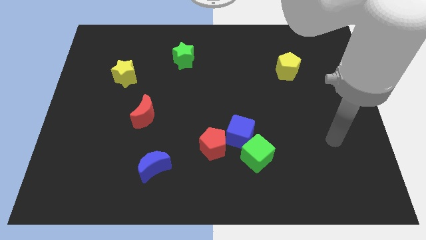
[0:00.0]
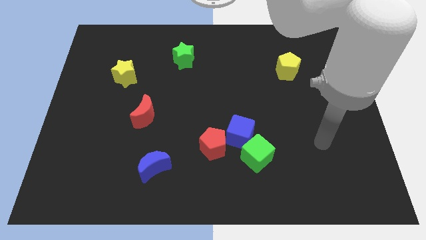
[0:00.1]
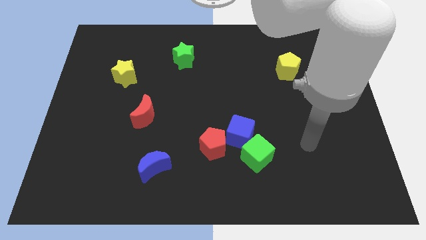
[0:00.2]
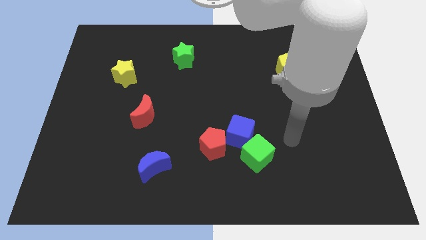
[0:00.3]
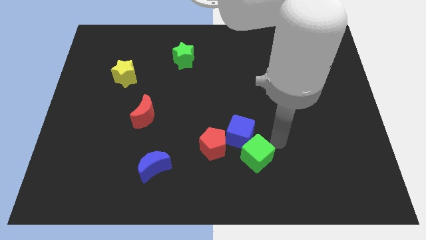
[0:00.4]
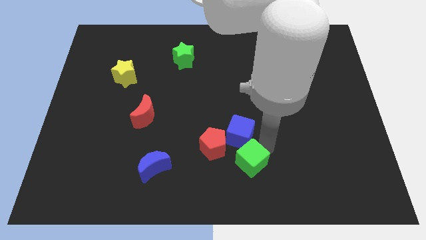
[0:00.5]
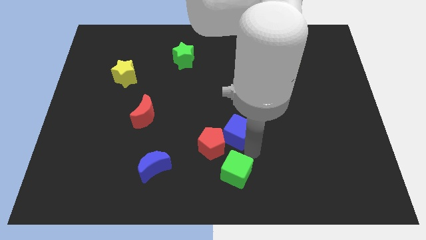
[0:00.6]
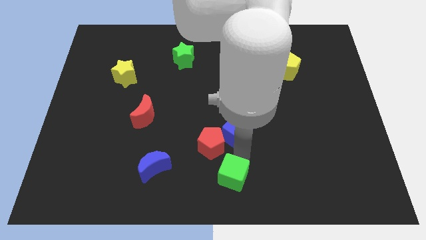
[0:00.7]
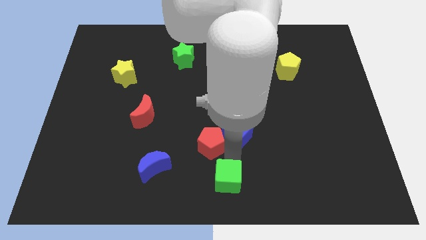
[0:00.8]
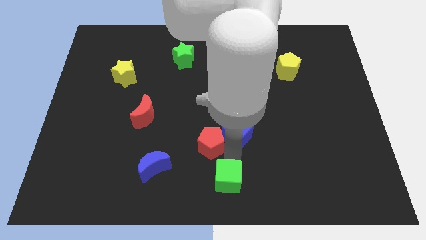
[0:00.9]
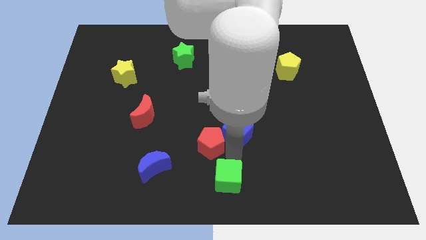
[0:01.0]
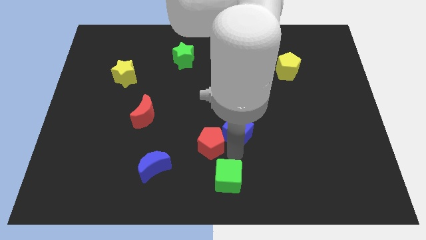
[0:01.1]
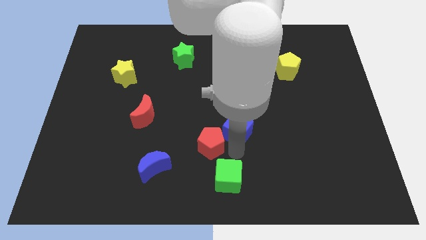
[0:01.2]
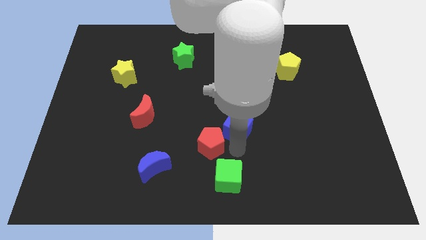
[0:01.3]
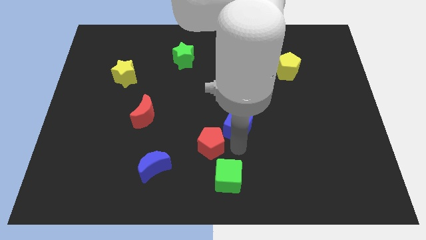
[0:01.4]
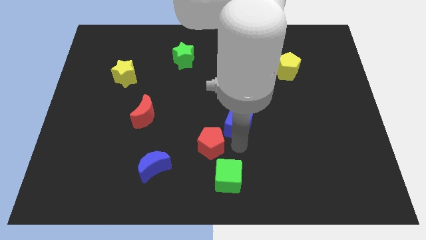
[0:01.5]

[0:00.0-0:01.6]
move the blue cube away from the green cube and red pentagon

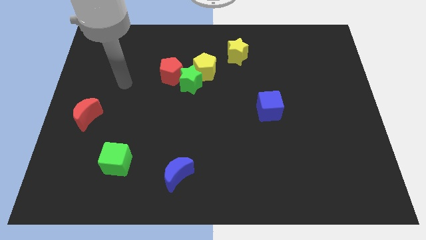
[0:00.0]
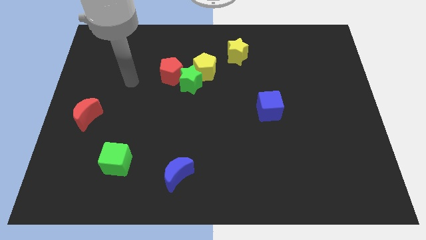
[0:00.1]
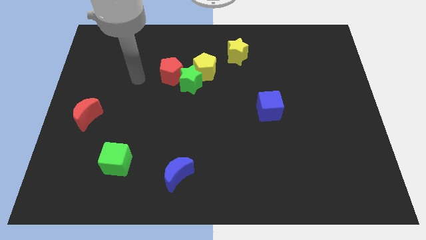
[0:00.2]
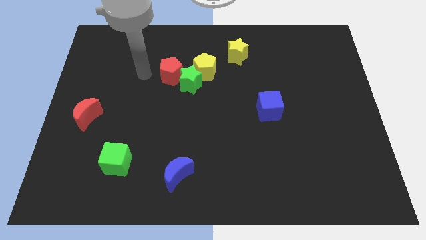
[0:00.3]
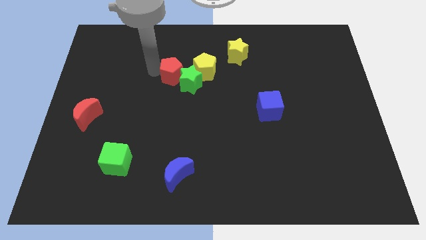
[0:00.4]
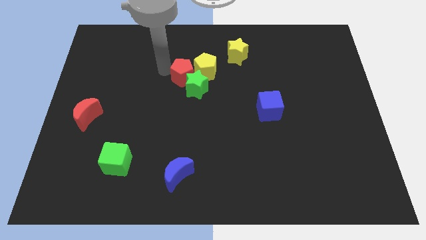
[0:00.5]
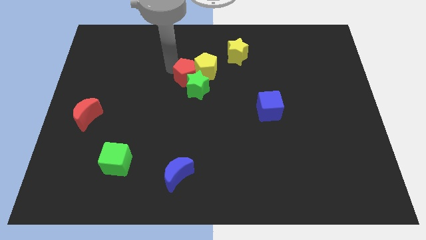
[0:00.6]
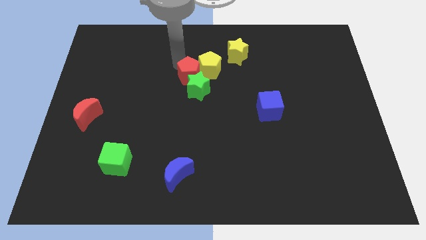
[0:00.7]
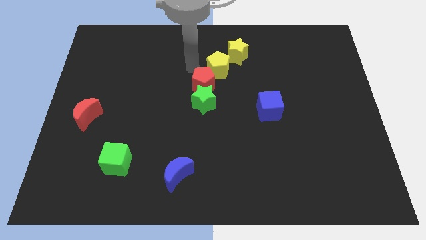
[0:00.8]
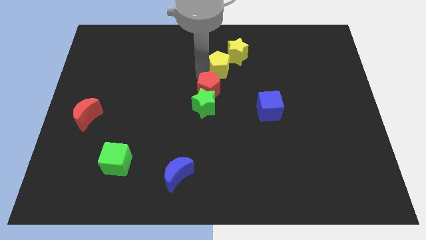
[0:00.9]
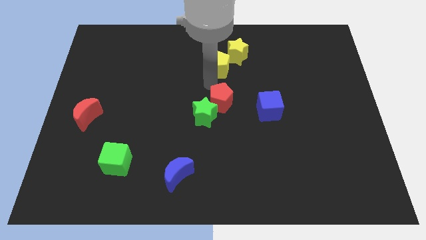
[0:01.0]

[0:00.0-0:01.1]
separate the green star from the red pentagon and yellow pentagon

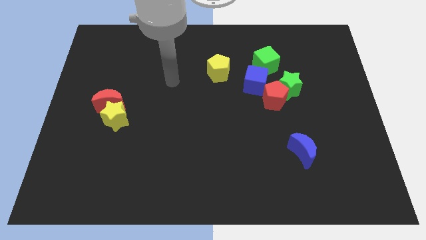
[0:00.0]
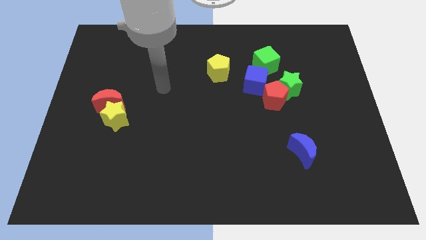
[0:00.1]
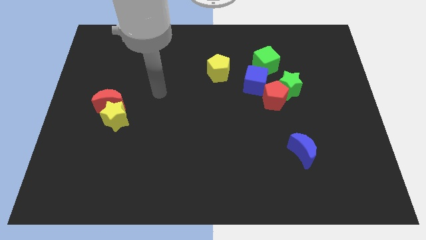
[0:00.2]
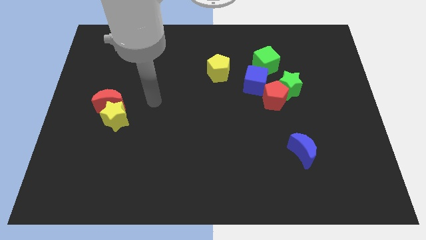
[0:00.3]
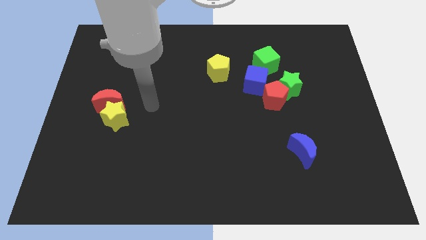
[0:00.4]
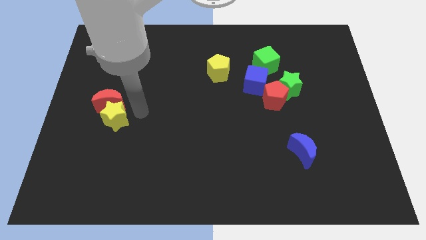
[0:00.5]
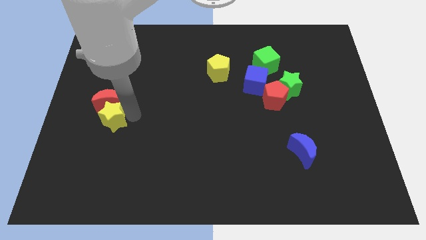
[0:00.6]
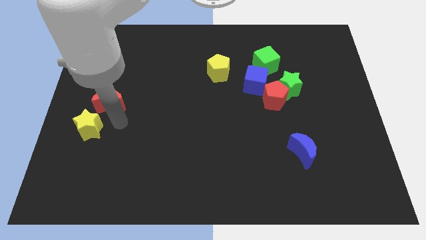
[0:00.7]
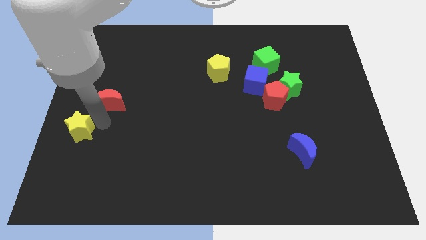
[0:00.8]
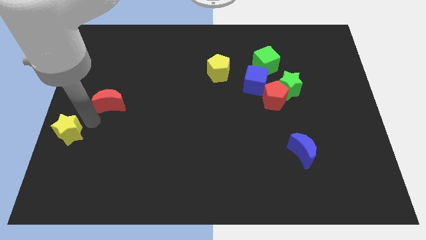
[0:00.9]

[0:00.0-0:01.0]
move the red moon away from the yellow star

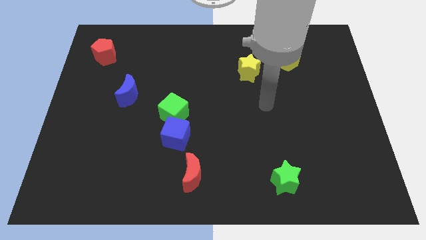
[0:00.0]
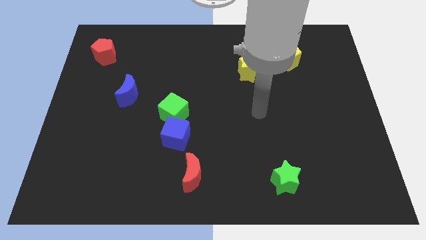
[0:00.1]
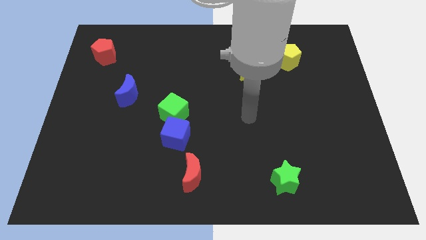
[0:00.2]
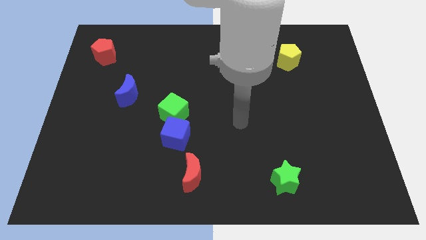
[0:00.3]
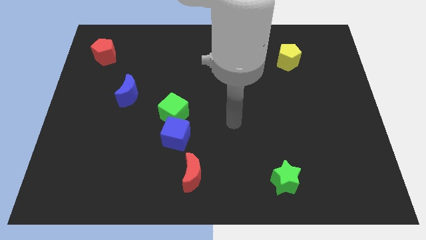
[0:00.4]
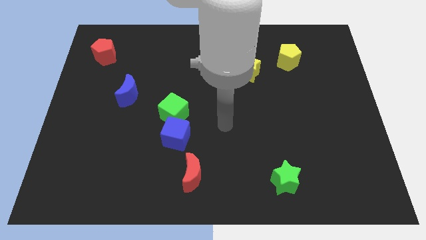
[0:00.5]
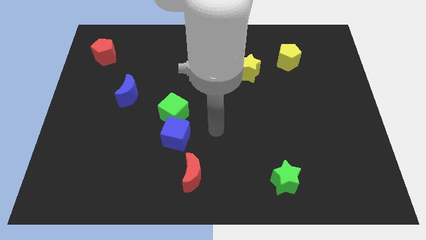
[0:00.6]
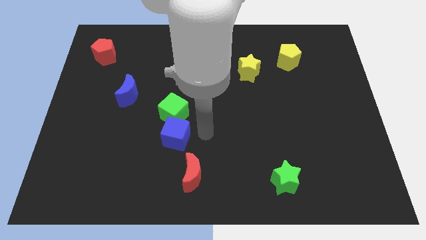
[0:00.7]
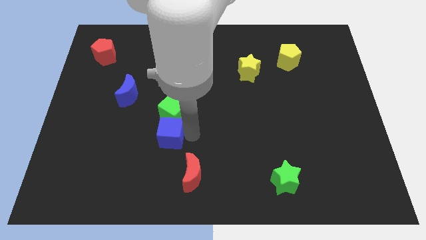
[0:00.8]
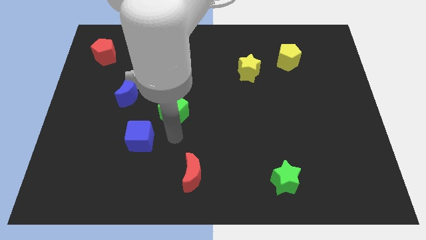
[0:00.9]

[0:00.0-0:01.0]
move the green cube away from the blue cube

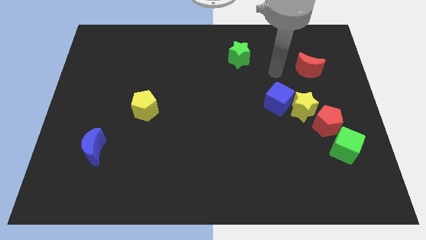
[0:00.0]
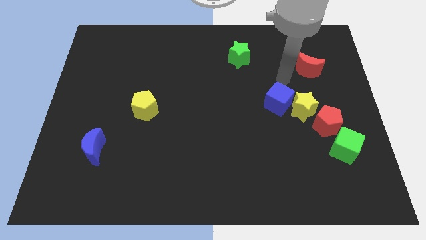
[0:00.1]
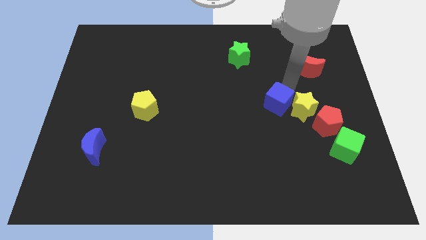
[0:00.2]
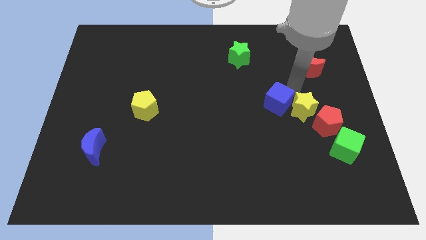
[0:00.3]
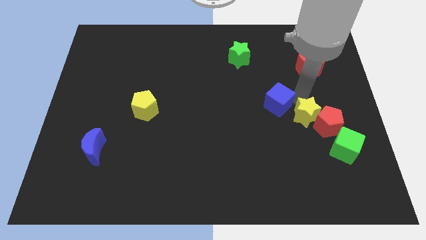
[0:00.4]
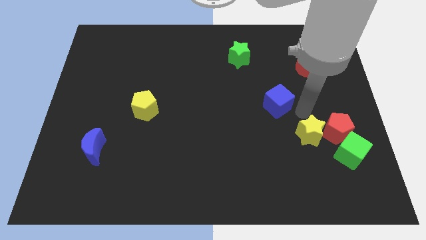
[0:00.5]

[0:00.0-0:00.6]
separate the blue cube from the yellow star

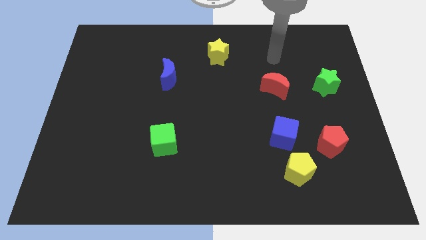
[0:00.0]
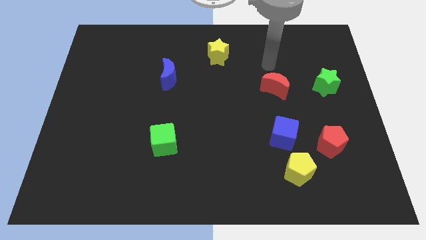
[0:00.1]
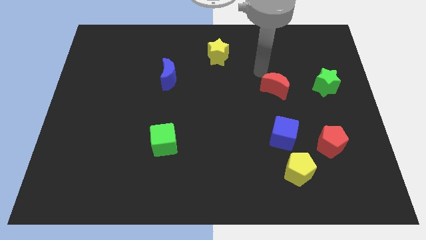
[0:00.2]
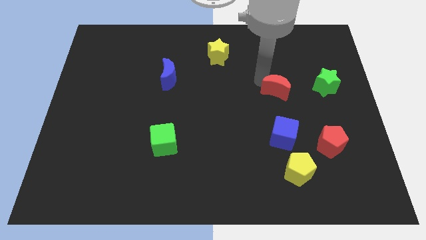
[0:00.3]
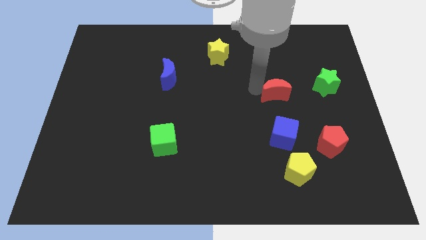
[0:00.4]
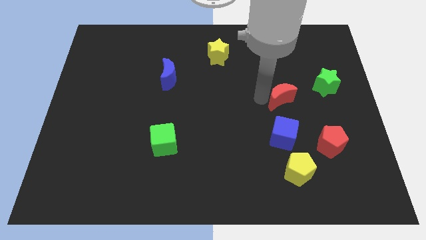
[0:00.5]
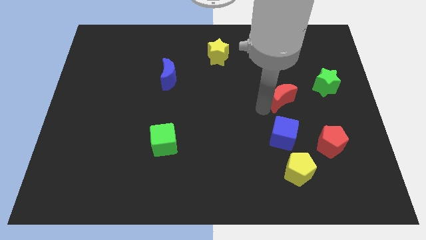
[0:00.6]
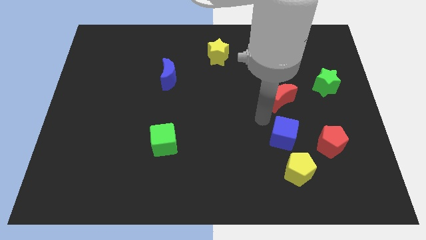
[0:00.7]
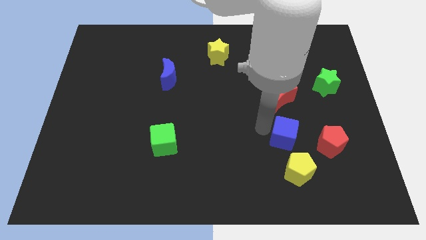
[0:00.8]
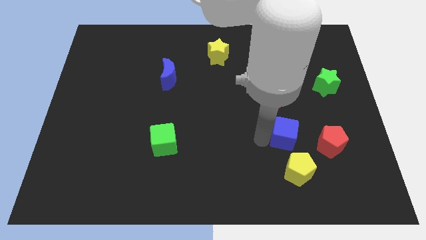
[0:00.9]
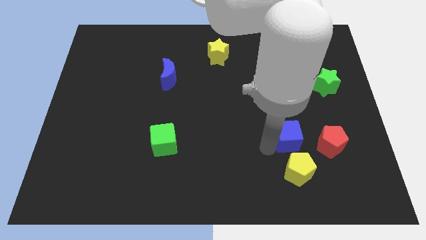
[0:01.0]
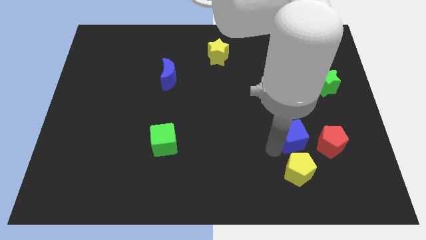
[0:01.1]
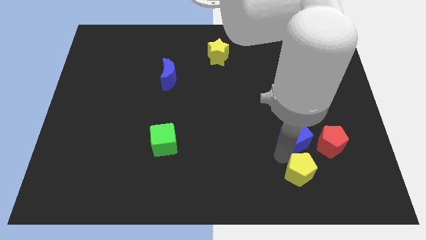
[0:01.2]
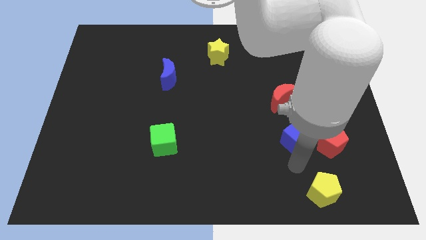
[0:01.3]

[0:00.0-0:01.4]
move the blue cube away from the yellow pentagon

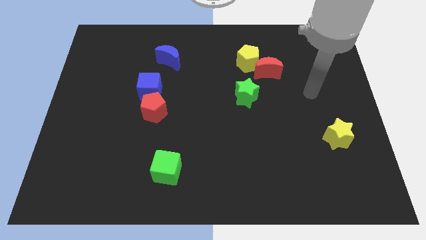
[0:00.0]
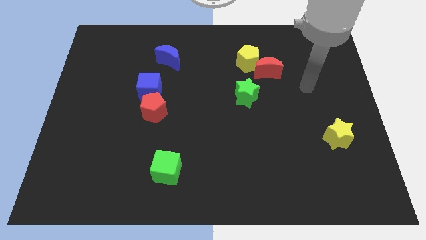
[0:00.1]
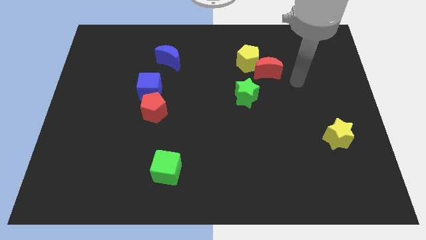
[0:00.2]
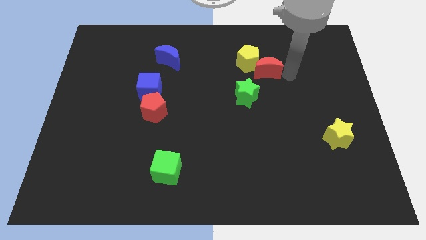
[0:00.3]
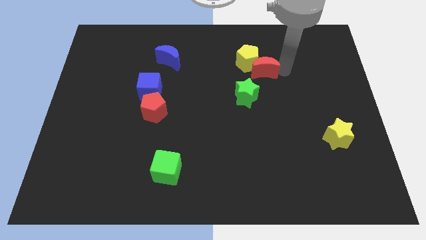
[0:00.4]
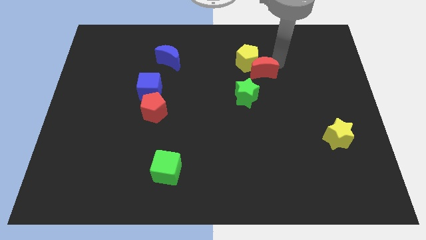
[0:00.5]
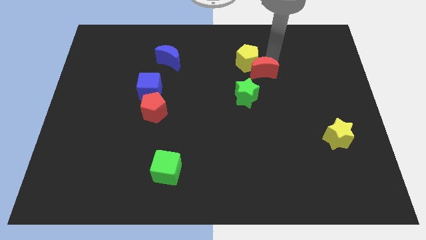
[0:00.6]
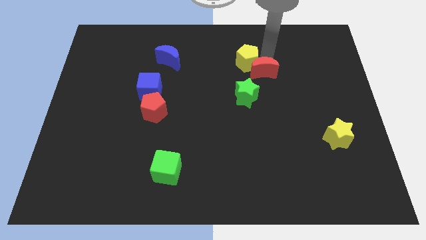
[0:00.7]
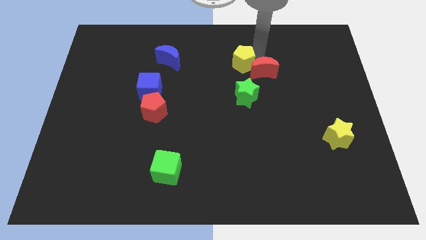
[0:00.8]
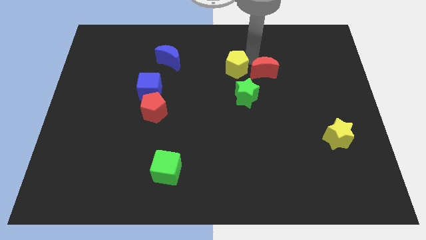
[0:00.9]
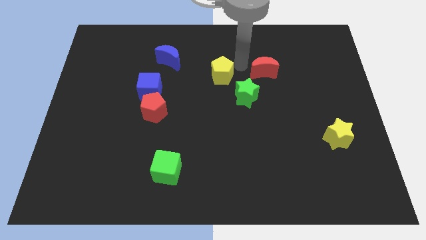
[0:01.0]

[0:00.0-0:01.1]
pull the red moon apart from the yellow pentagon

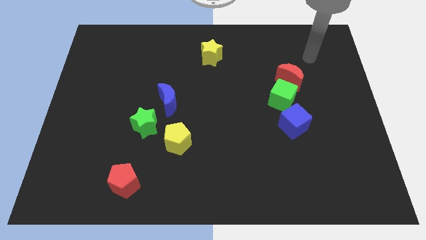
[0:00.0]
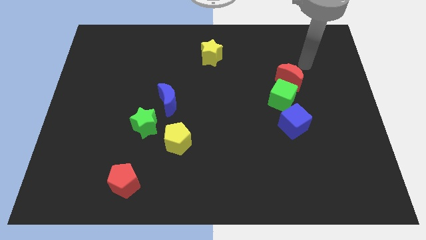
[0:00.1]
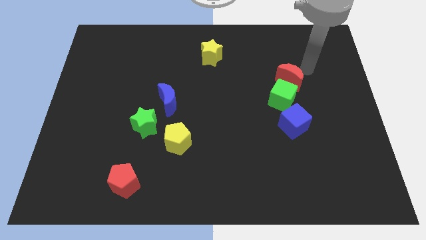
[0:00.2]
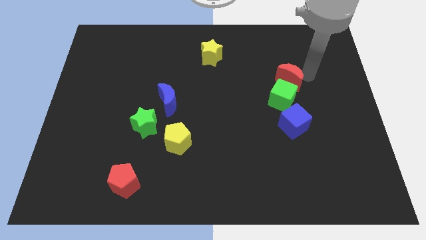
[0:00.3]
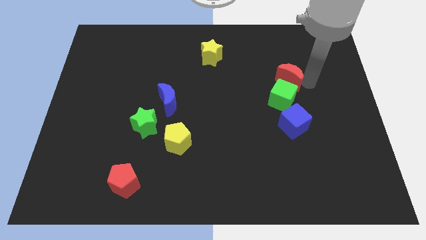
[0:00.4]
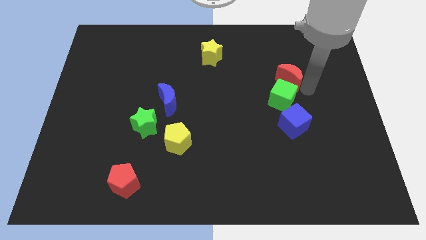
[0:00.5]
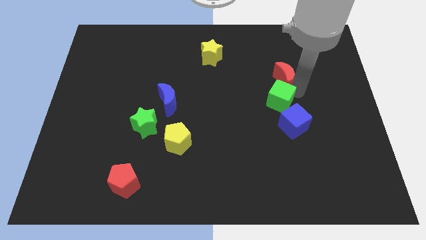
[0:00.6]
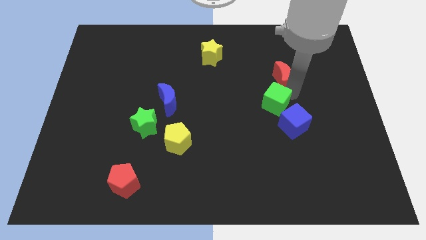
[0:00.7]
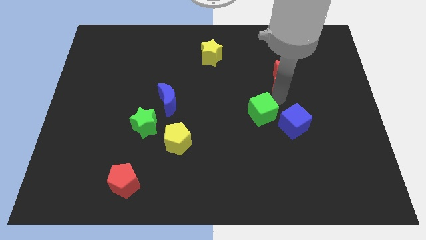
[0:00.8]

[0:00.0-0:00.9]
separate the red moon from the green cube

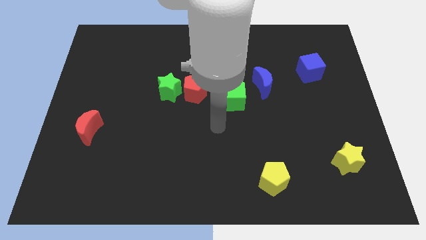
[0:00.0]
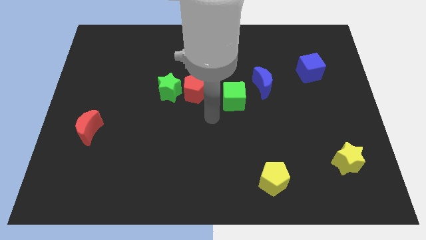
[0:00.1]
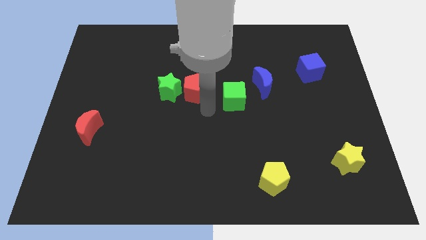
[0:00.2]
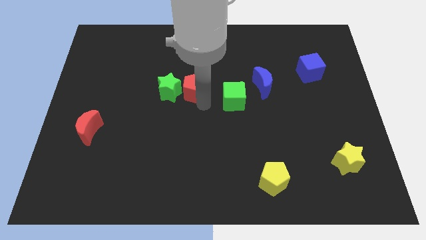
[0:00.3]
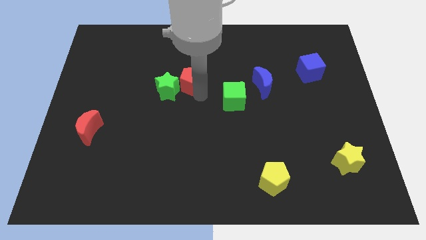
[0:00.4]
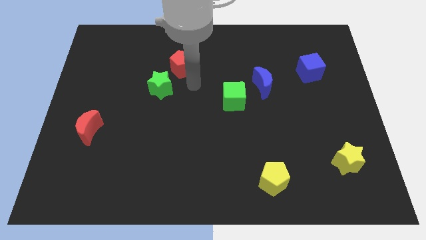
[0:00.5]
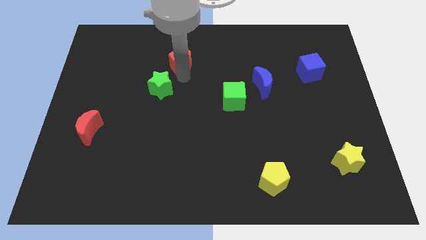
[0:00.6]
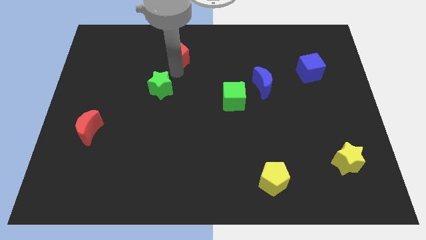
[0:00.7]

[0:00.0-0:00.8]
separate the green star from the red pentagon

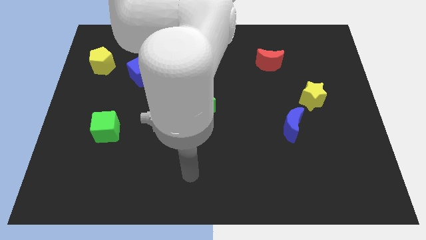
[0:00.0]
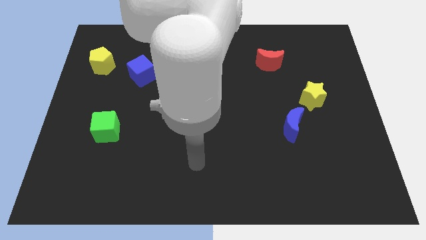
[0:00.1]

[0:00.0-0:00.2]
separate the blue moon from the yellow star
